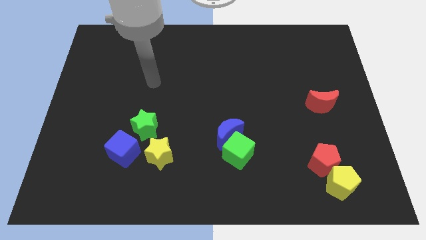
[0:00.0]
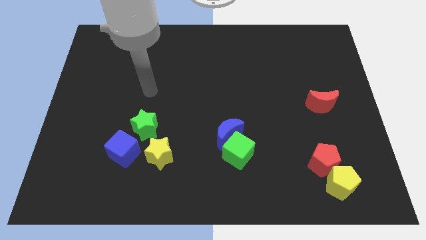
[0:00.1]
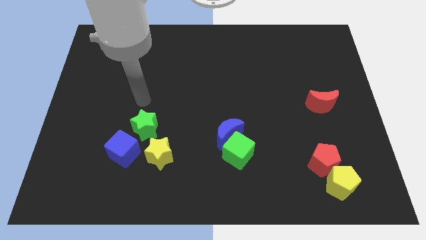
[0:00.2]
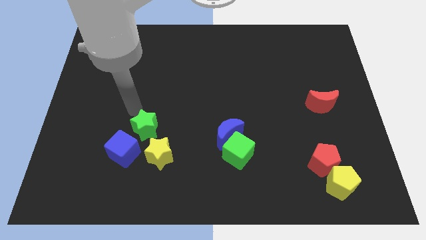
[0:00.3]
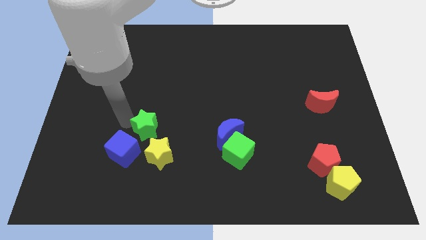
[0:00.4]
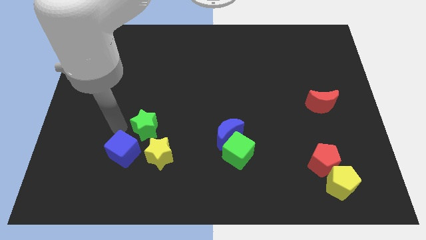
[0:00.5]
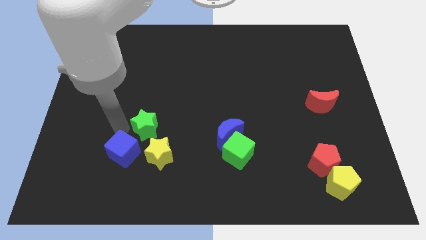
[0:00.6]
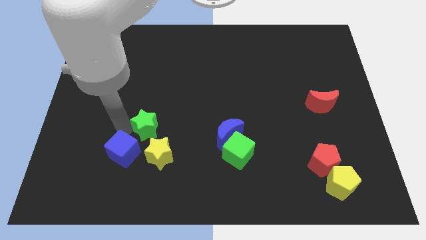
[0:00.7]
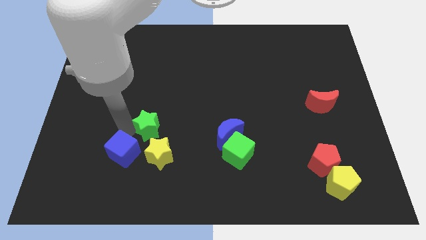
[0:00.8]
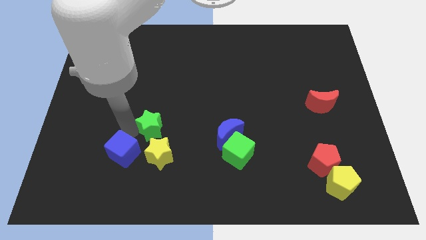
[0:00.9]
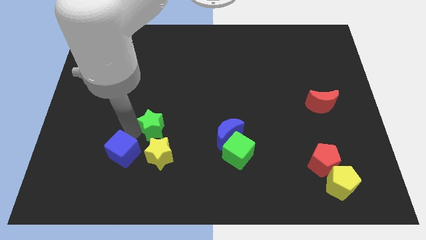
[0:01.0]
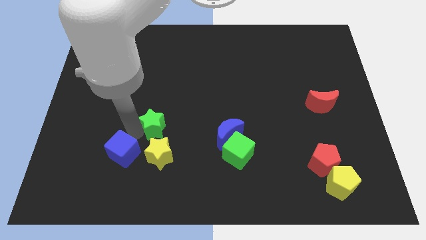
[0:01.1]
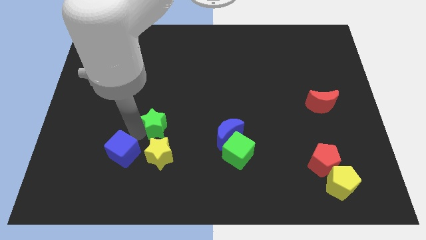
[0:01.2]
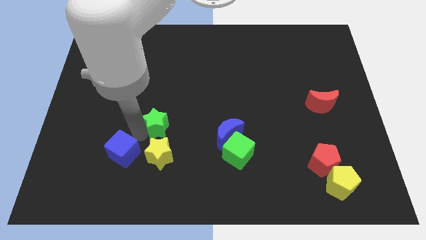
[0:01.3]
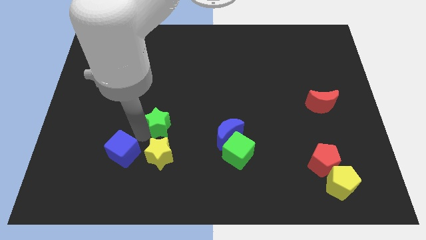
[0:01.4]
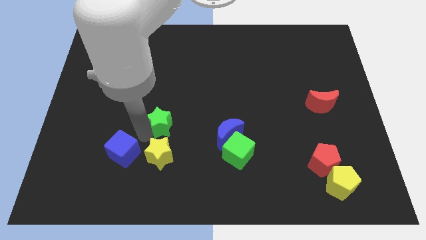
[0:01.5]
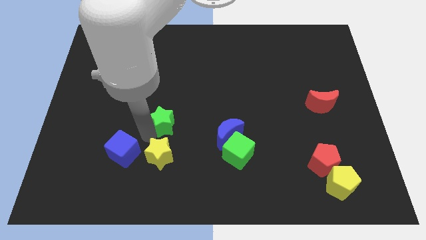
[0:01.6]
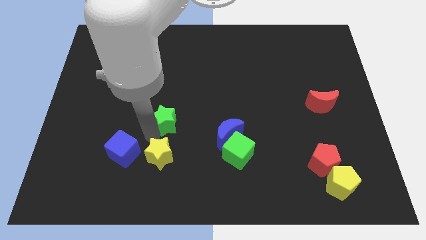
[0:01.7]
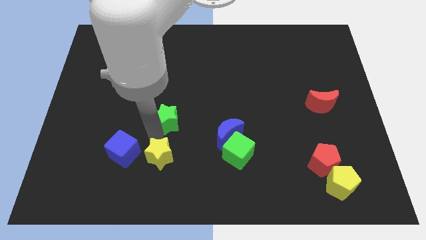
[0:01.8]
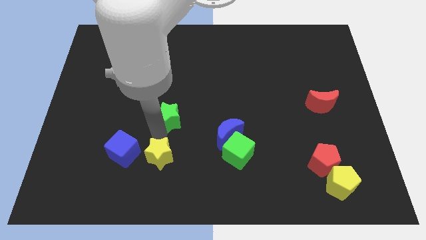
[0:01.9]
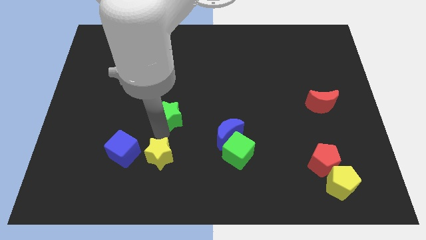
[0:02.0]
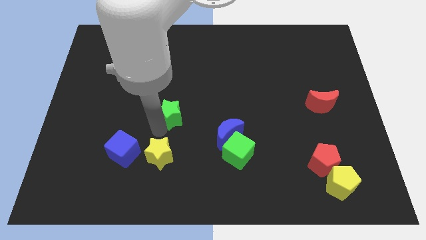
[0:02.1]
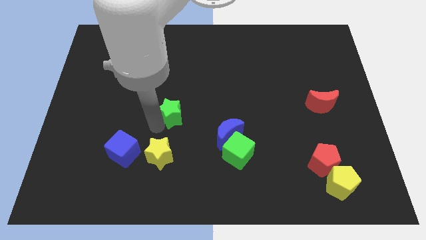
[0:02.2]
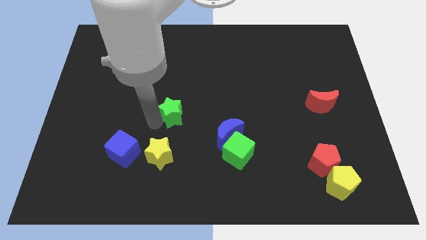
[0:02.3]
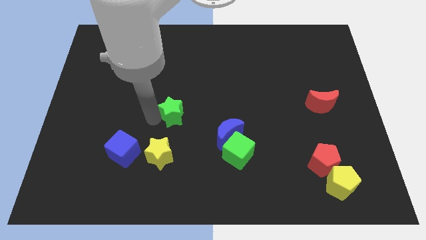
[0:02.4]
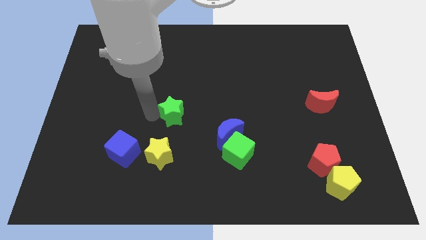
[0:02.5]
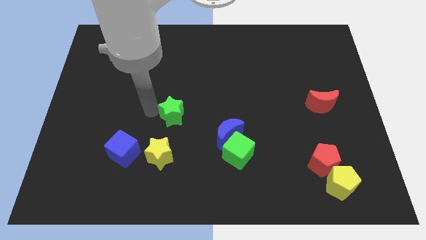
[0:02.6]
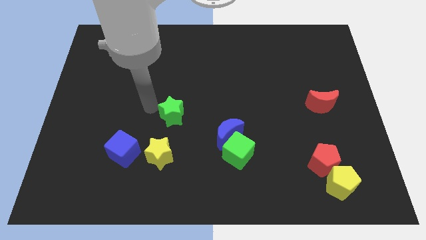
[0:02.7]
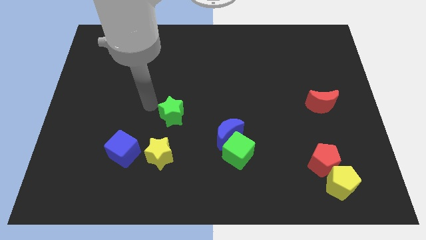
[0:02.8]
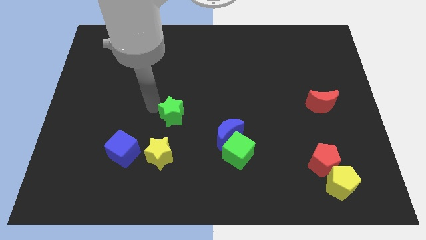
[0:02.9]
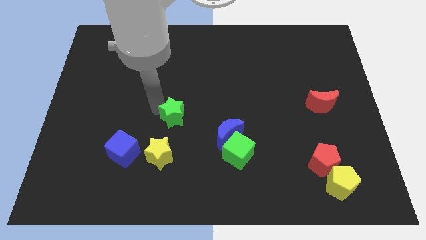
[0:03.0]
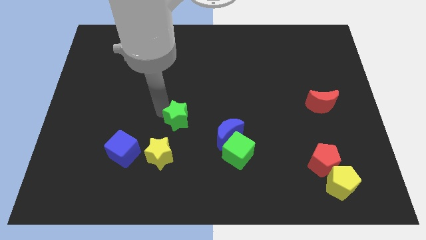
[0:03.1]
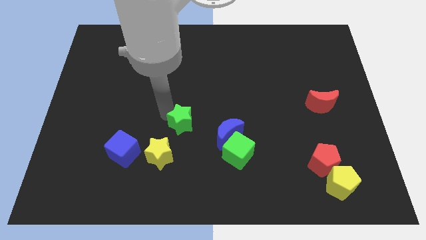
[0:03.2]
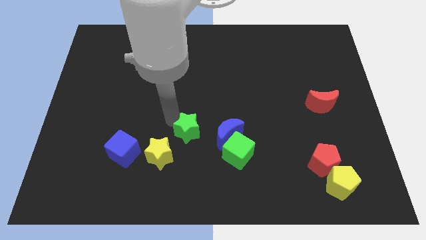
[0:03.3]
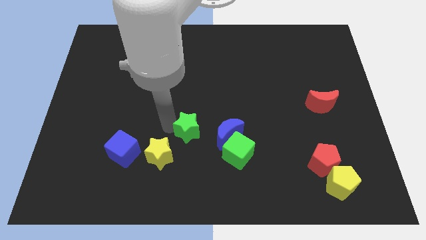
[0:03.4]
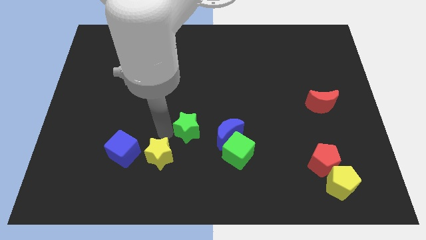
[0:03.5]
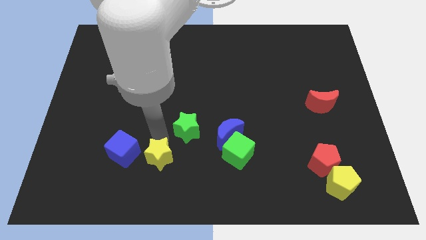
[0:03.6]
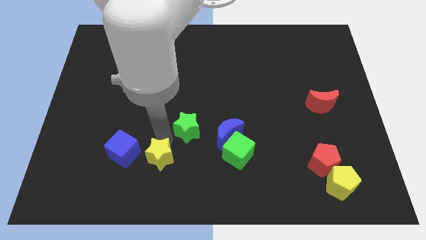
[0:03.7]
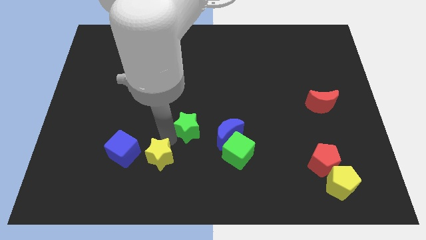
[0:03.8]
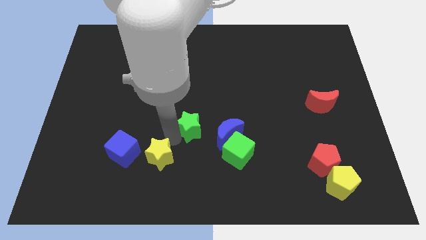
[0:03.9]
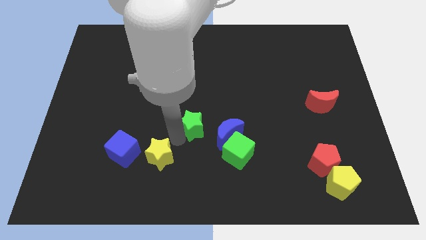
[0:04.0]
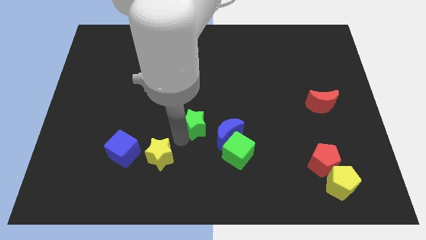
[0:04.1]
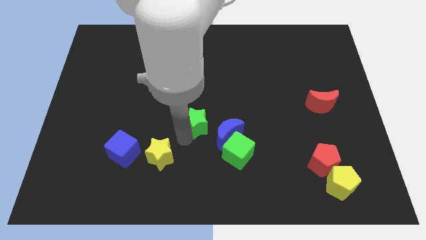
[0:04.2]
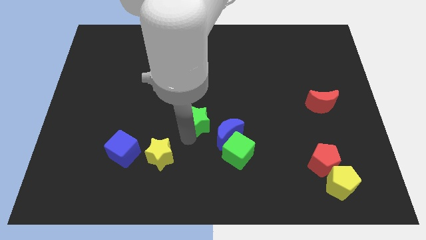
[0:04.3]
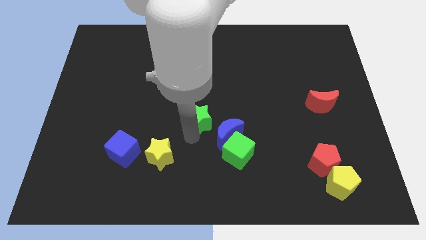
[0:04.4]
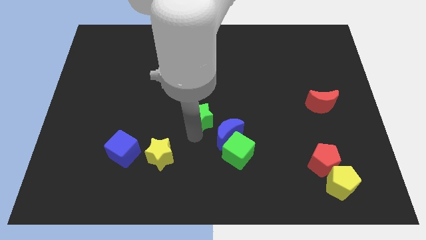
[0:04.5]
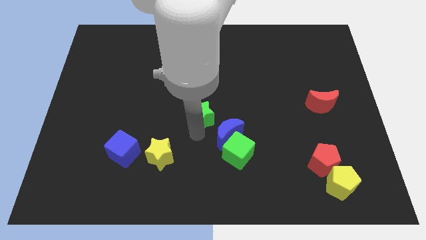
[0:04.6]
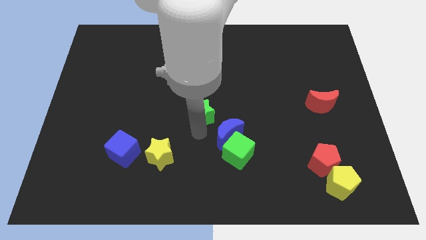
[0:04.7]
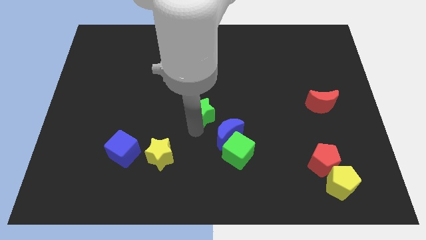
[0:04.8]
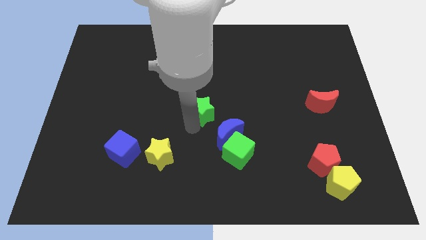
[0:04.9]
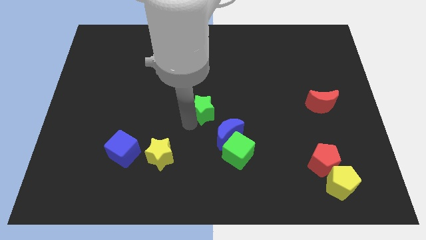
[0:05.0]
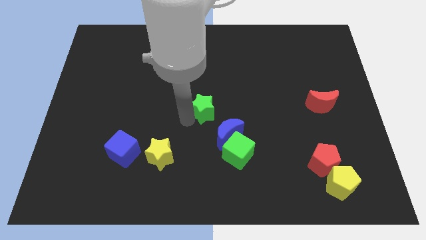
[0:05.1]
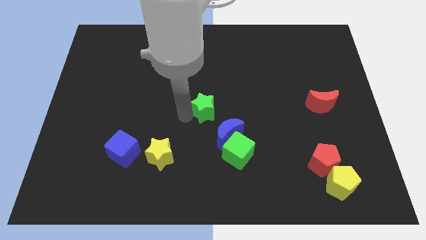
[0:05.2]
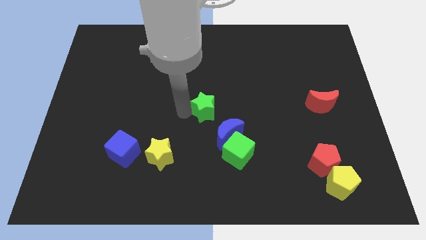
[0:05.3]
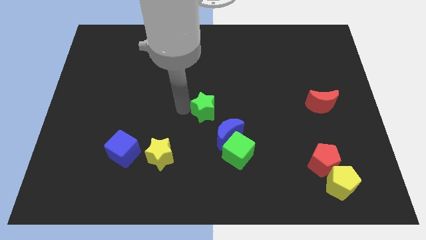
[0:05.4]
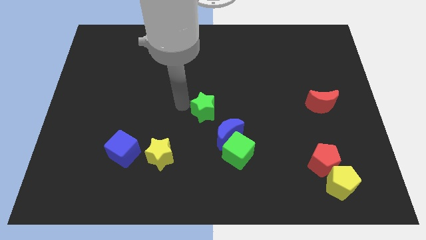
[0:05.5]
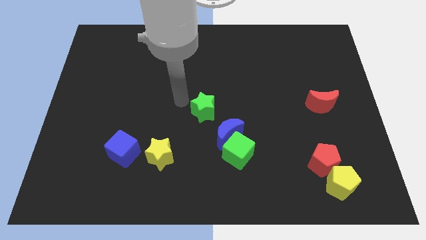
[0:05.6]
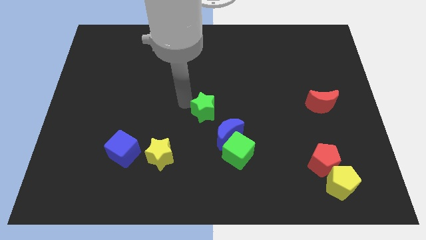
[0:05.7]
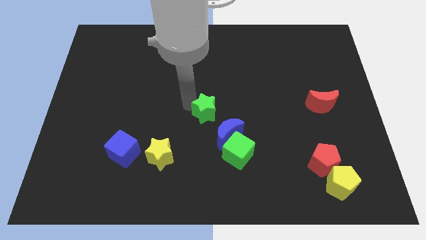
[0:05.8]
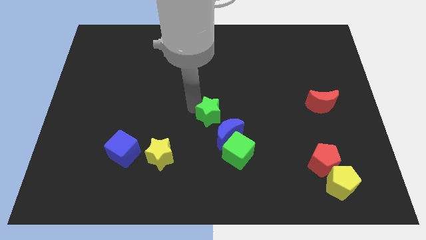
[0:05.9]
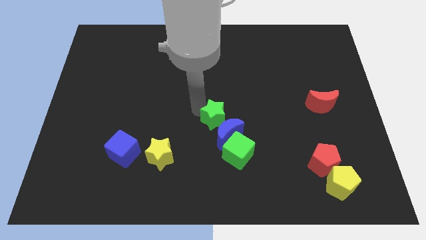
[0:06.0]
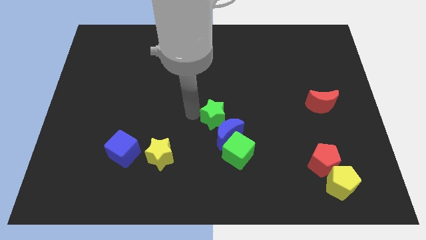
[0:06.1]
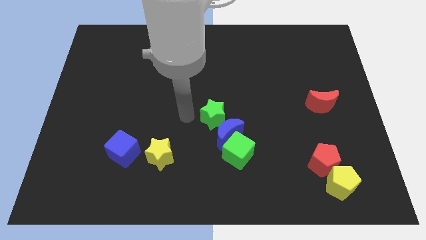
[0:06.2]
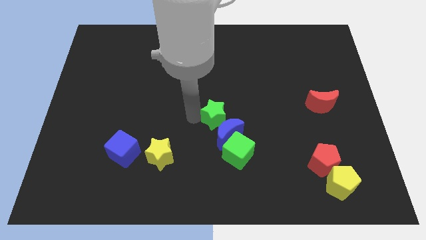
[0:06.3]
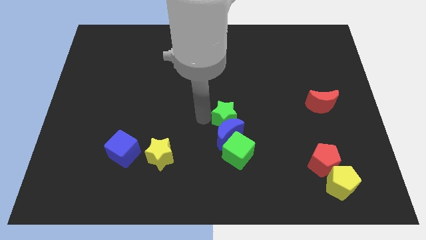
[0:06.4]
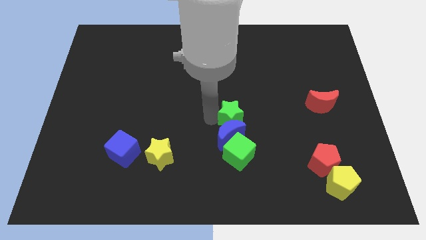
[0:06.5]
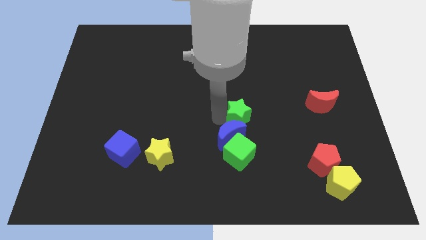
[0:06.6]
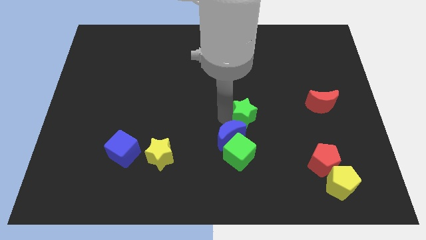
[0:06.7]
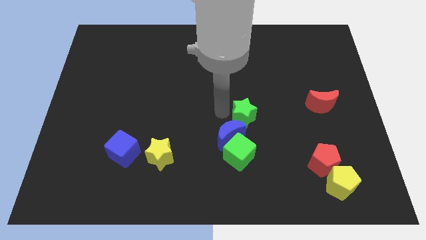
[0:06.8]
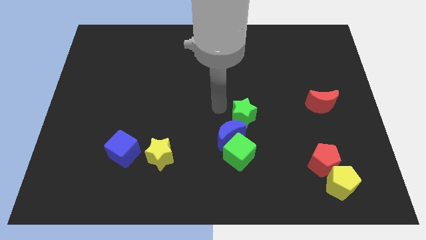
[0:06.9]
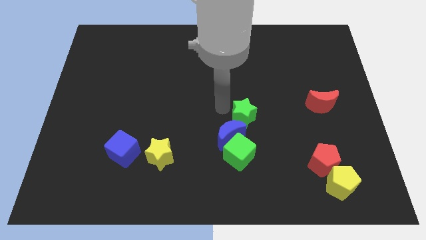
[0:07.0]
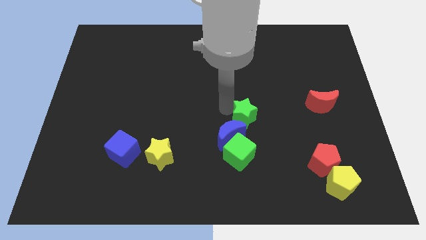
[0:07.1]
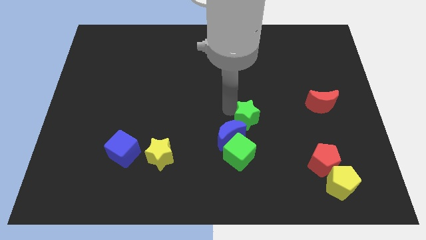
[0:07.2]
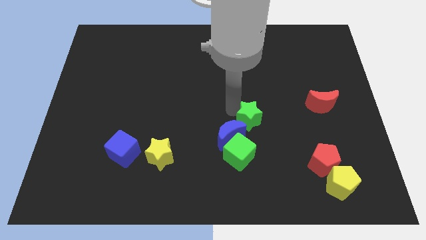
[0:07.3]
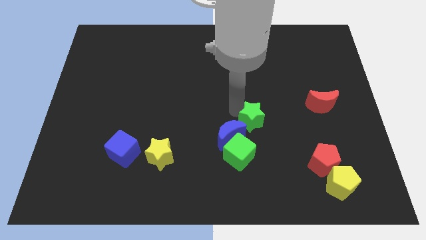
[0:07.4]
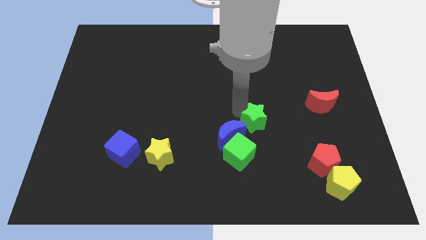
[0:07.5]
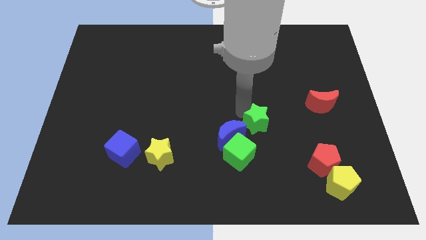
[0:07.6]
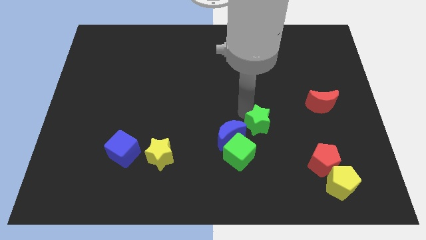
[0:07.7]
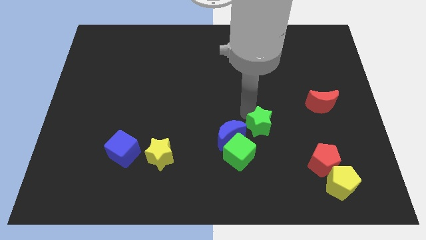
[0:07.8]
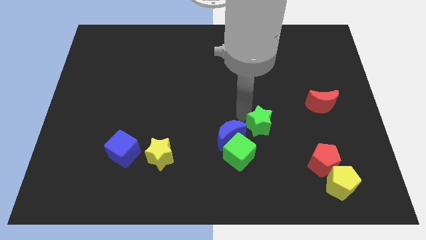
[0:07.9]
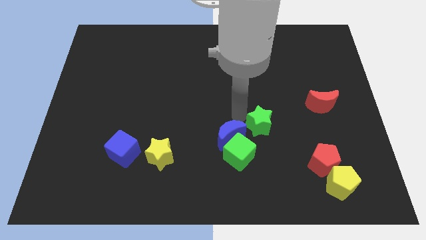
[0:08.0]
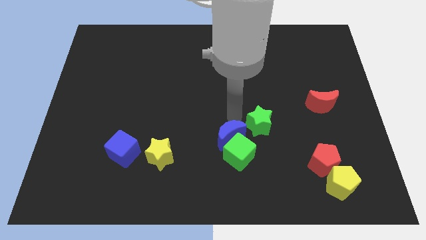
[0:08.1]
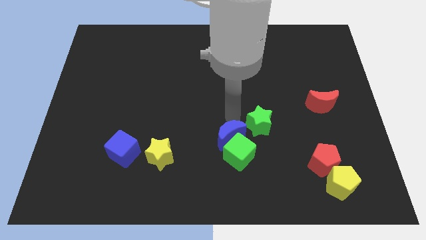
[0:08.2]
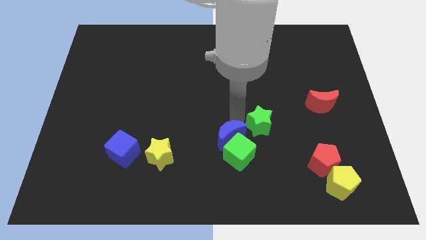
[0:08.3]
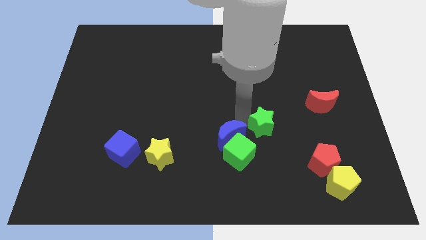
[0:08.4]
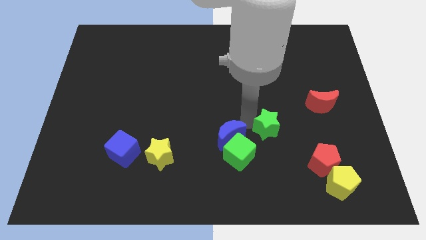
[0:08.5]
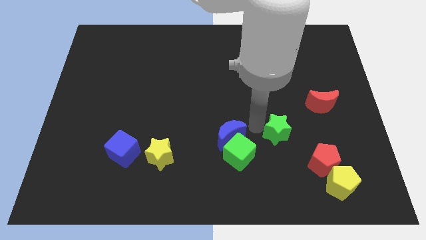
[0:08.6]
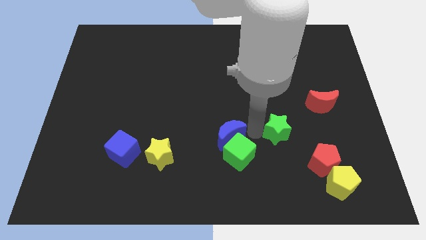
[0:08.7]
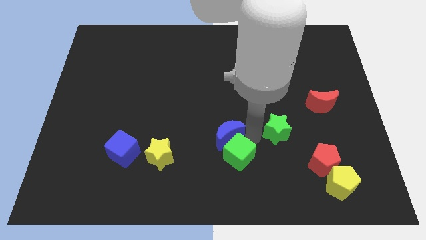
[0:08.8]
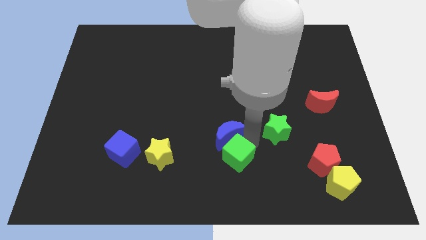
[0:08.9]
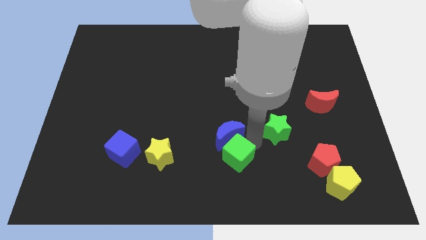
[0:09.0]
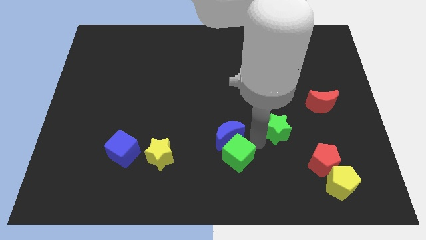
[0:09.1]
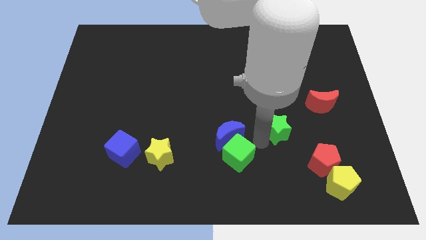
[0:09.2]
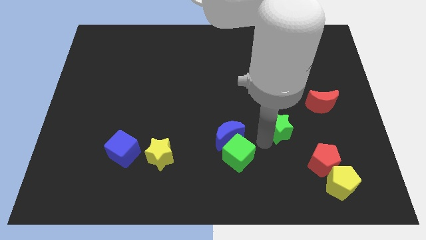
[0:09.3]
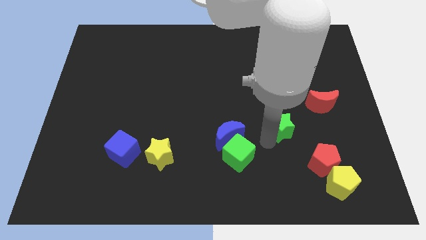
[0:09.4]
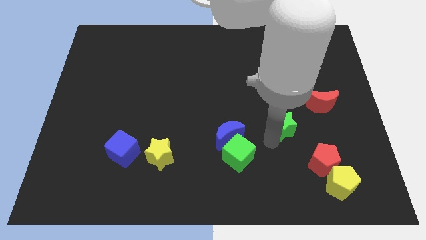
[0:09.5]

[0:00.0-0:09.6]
put the green star diagonally down and to the left of the red moon
